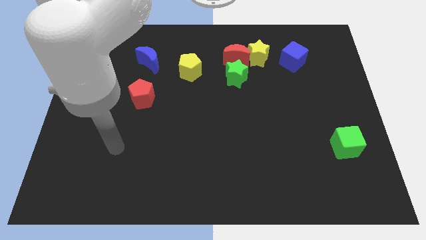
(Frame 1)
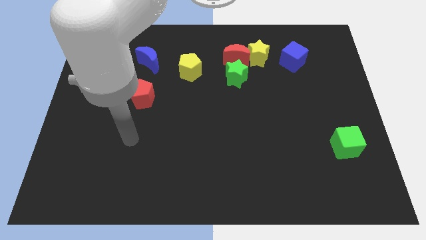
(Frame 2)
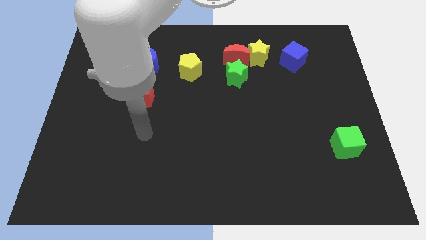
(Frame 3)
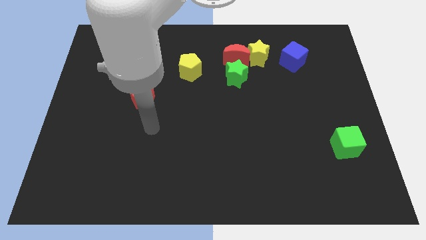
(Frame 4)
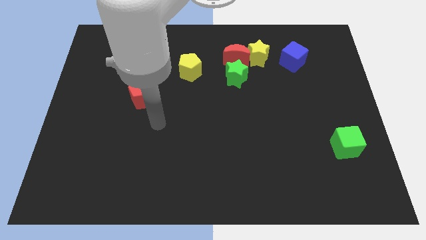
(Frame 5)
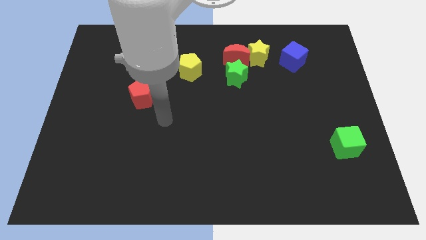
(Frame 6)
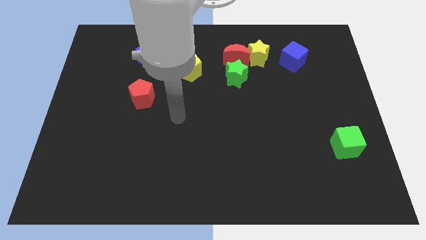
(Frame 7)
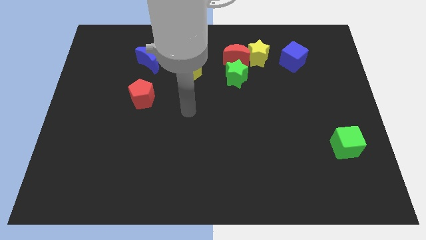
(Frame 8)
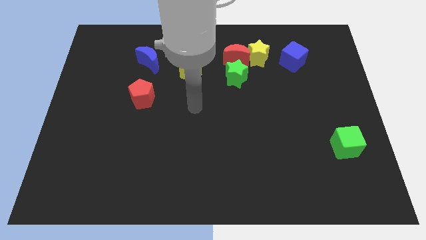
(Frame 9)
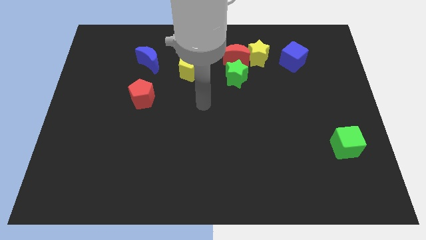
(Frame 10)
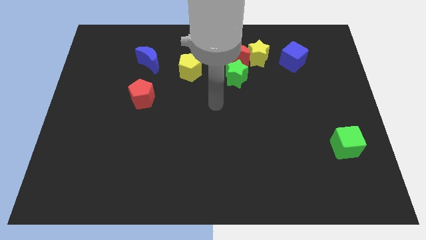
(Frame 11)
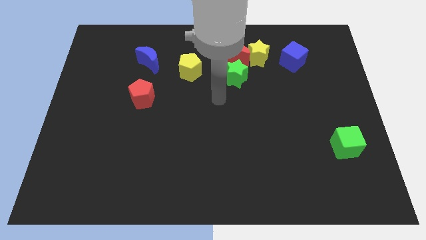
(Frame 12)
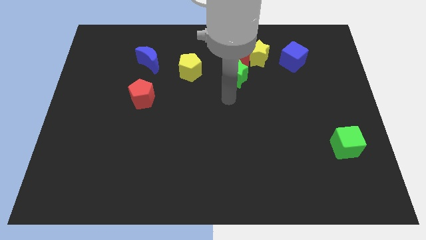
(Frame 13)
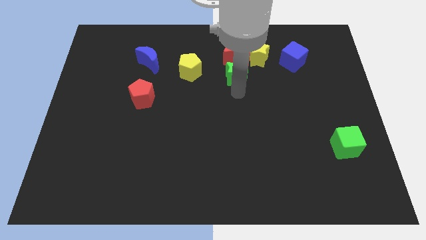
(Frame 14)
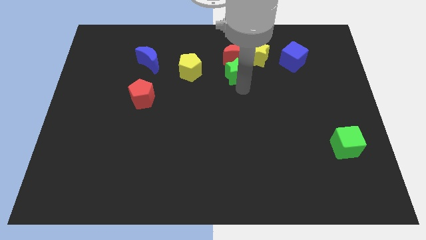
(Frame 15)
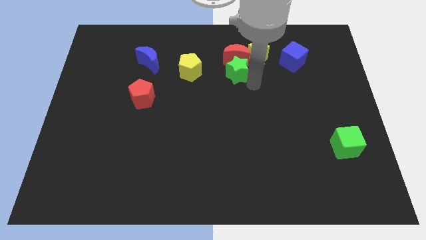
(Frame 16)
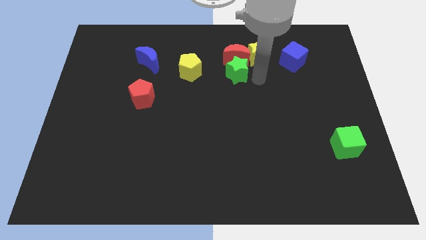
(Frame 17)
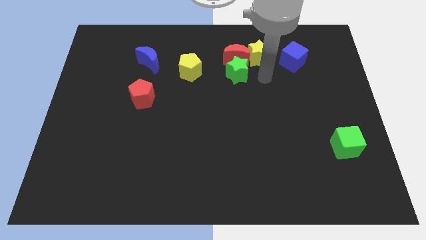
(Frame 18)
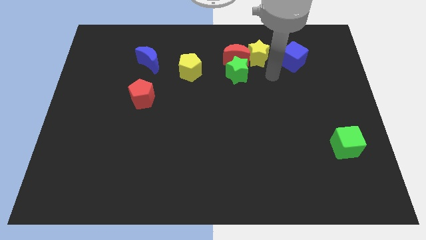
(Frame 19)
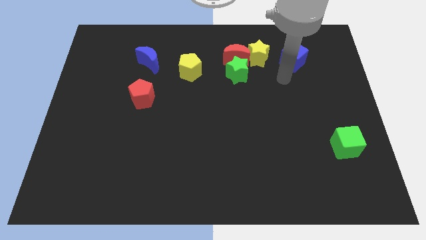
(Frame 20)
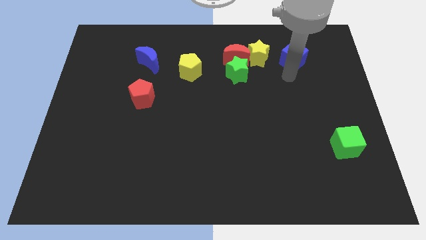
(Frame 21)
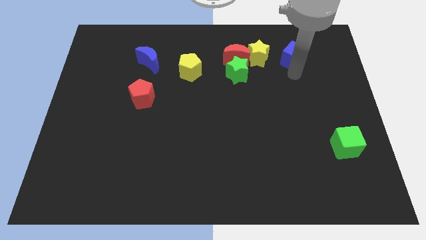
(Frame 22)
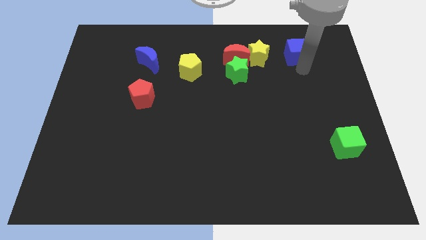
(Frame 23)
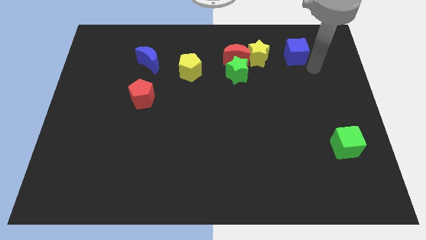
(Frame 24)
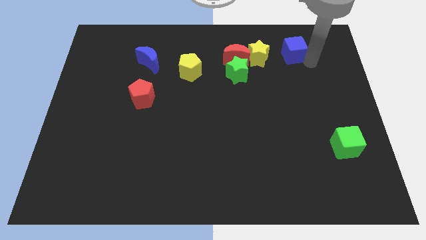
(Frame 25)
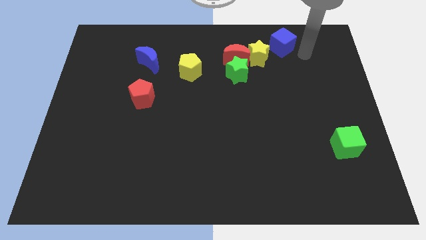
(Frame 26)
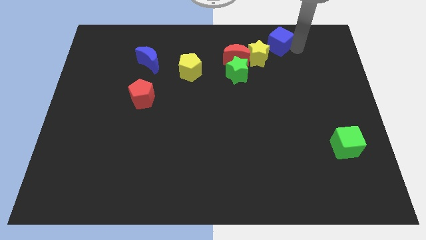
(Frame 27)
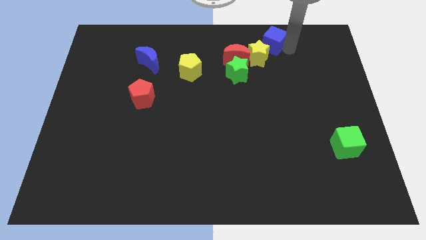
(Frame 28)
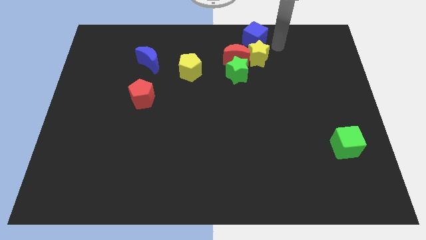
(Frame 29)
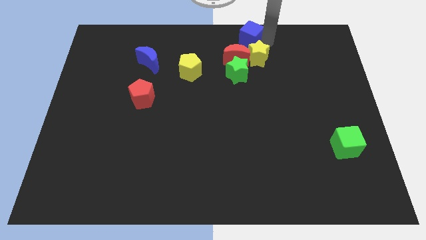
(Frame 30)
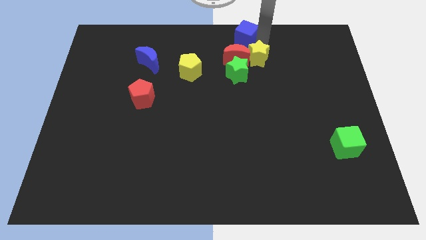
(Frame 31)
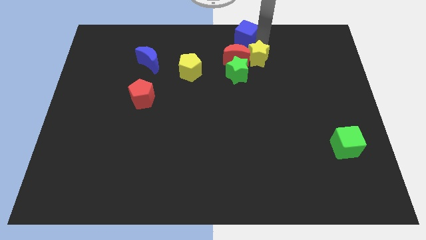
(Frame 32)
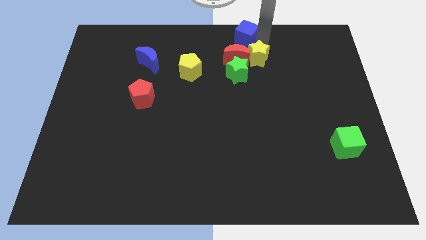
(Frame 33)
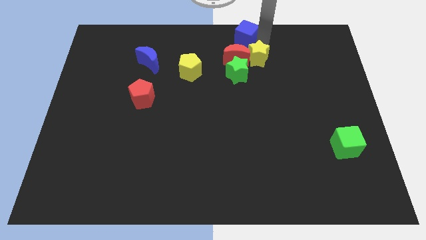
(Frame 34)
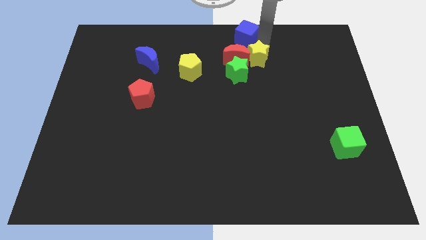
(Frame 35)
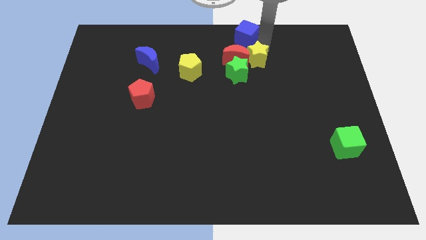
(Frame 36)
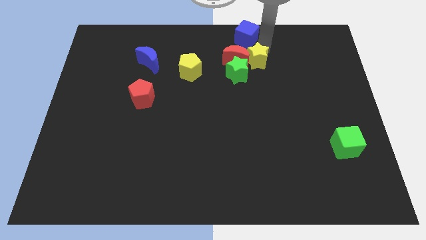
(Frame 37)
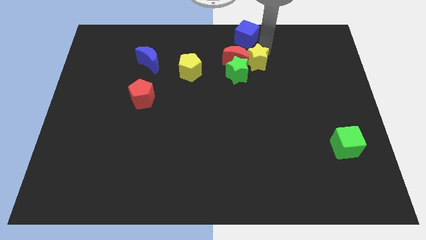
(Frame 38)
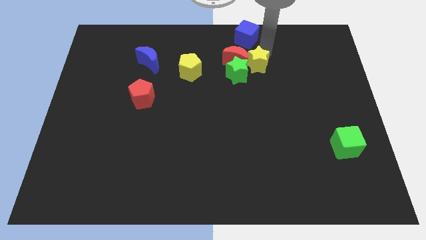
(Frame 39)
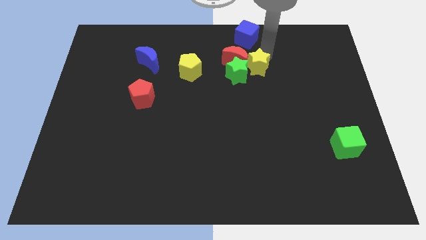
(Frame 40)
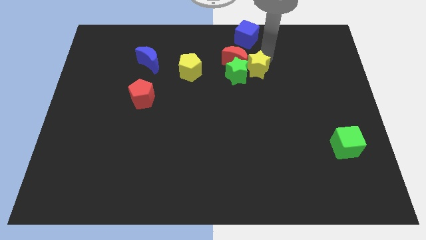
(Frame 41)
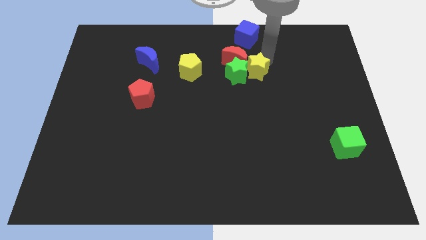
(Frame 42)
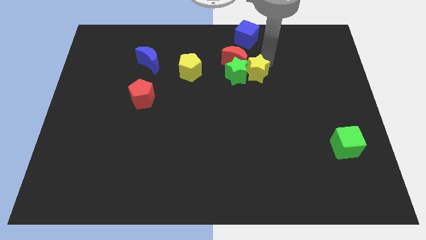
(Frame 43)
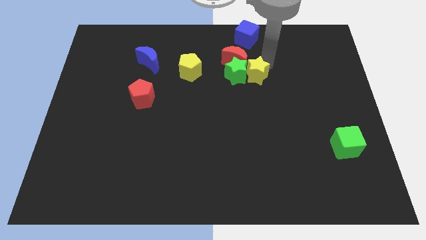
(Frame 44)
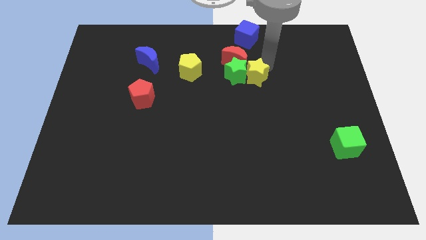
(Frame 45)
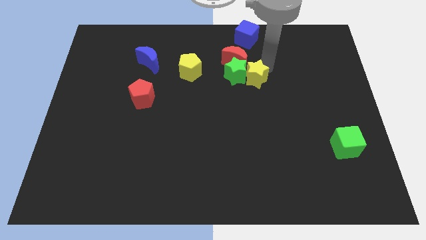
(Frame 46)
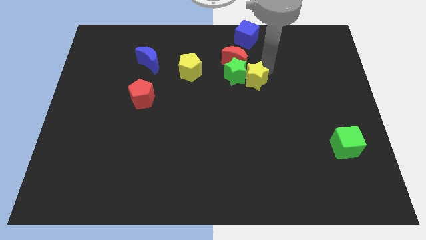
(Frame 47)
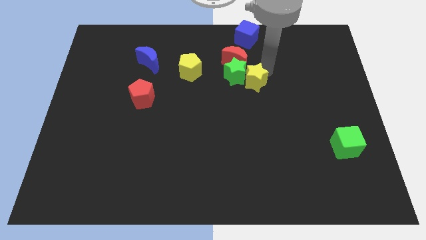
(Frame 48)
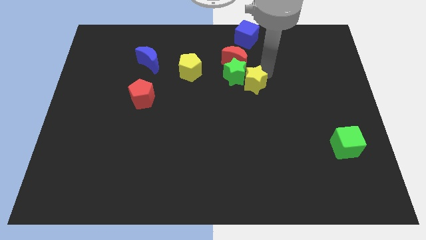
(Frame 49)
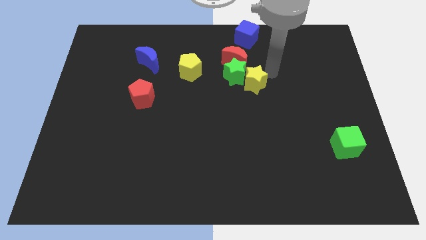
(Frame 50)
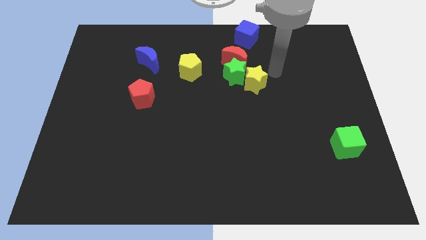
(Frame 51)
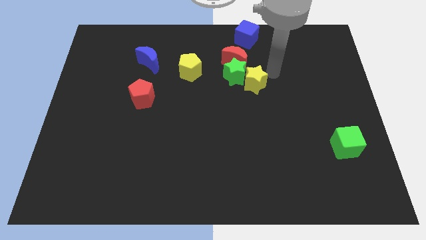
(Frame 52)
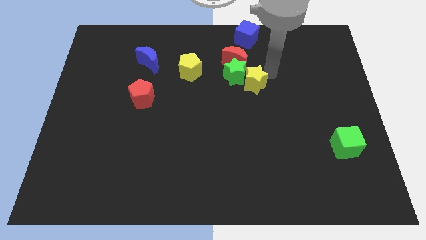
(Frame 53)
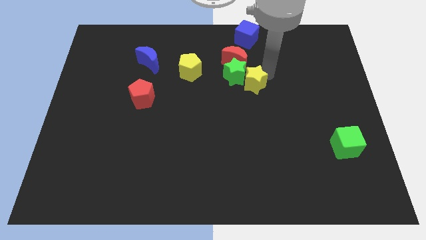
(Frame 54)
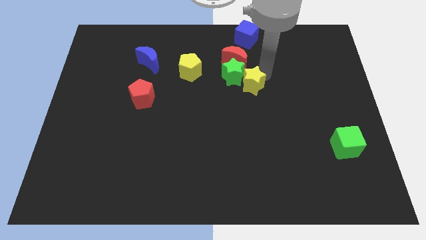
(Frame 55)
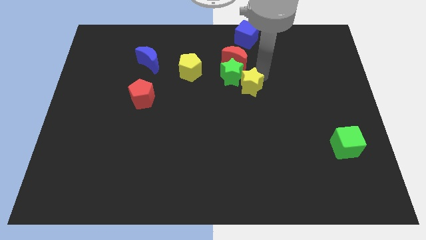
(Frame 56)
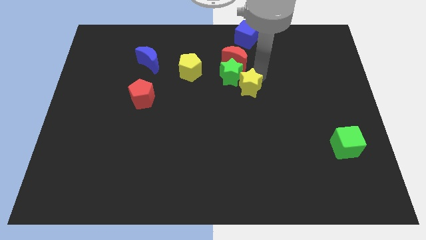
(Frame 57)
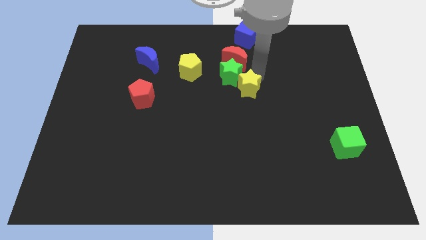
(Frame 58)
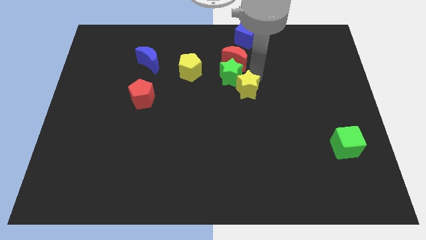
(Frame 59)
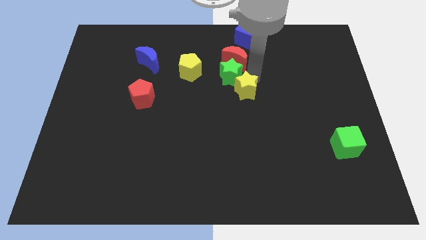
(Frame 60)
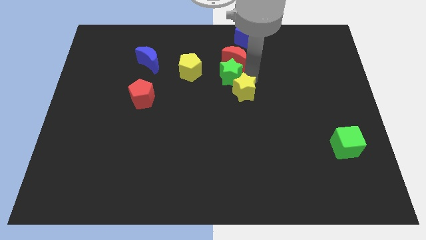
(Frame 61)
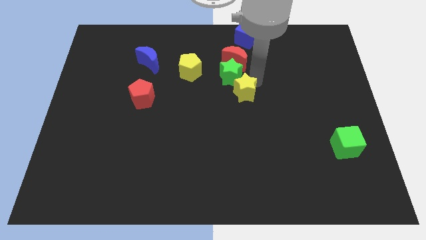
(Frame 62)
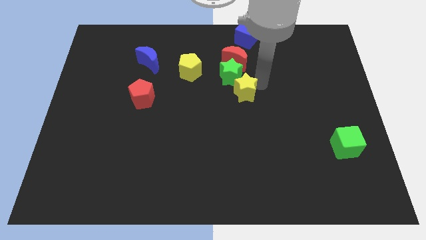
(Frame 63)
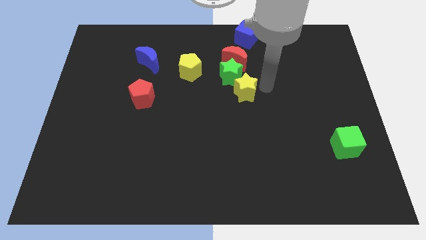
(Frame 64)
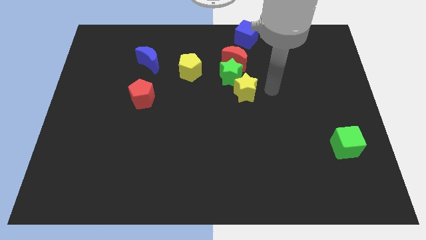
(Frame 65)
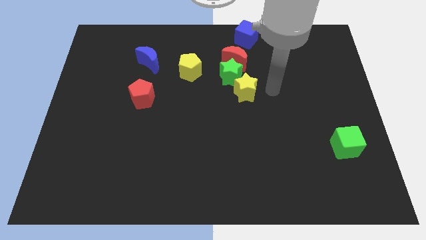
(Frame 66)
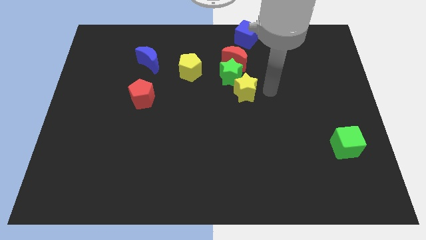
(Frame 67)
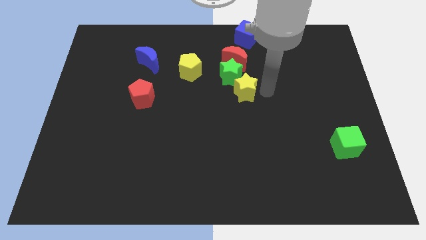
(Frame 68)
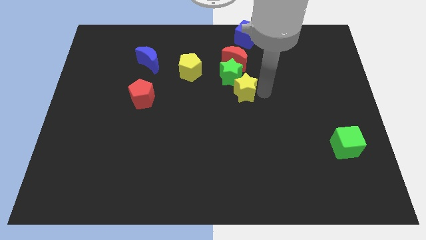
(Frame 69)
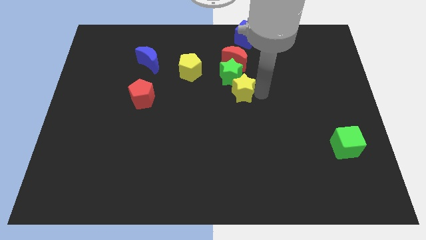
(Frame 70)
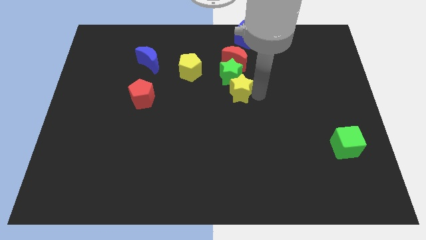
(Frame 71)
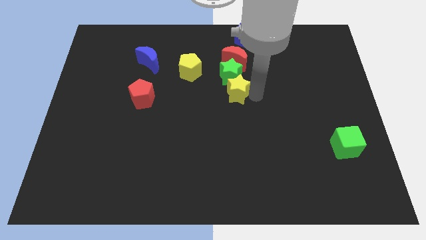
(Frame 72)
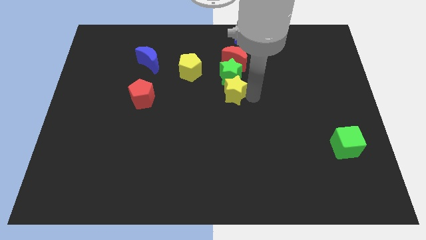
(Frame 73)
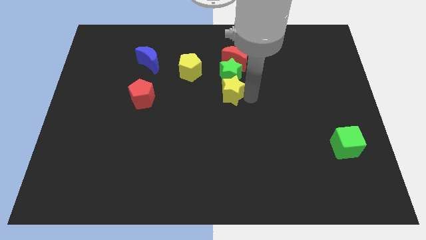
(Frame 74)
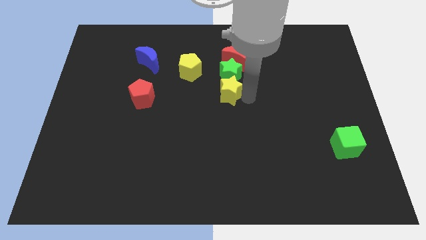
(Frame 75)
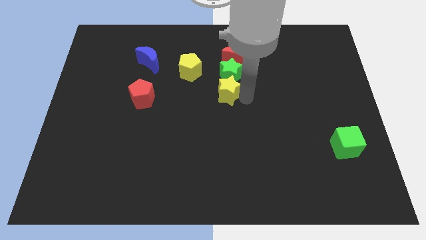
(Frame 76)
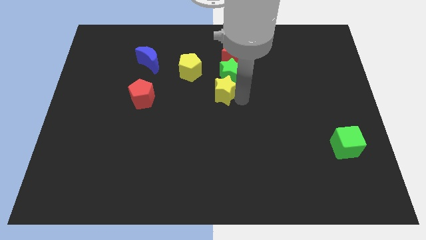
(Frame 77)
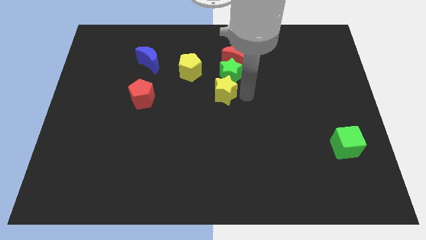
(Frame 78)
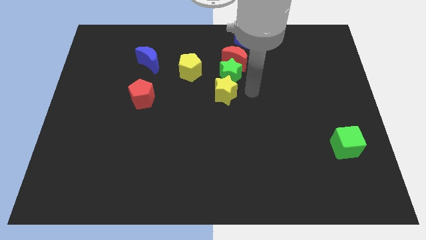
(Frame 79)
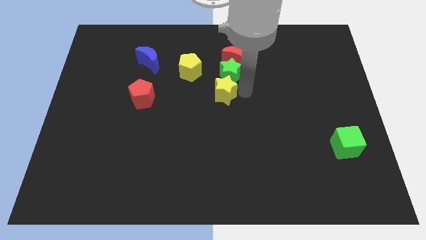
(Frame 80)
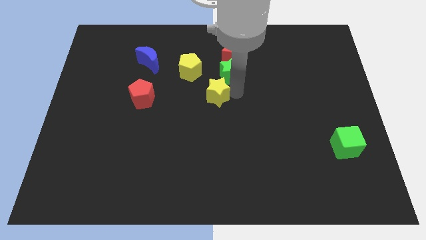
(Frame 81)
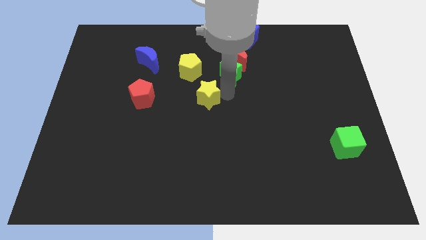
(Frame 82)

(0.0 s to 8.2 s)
move the yellow star to the right of the red pentagon
